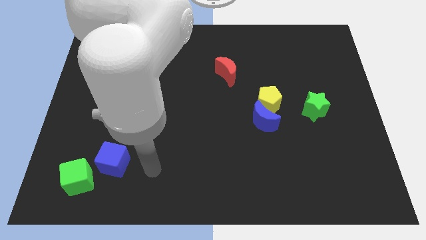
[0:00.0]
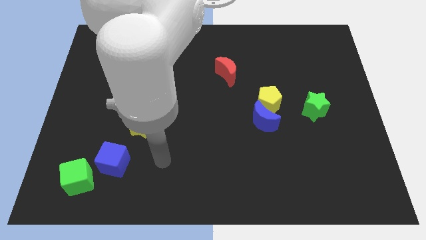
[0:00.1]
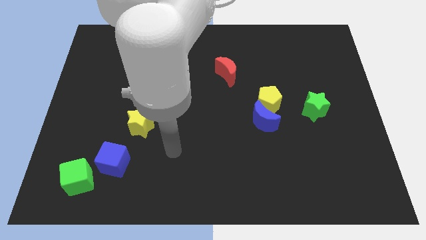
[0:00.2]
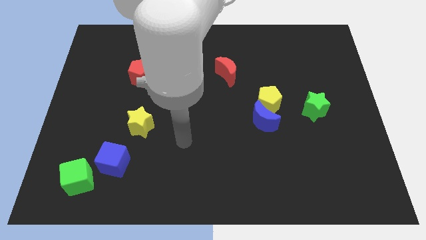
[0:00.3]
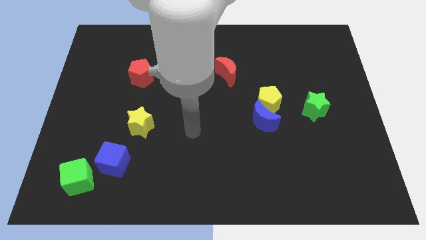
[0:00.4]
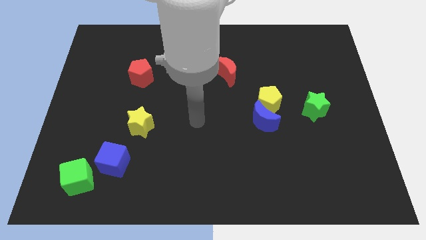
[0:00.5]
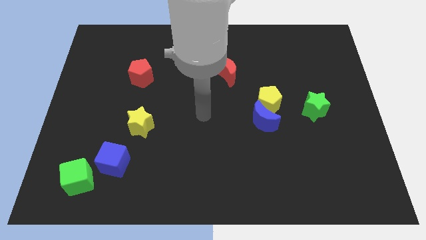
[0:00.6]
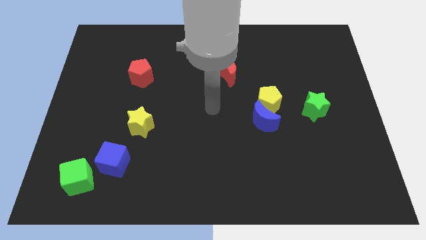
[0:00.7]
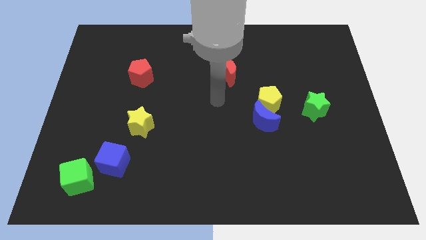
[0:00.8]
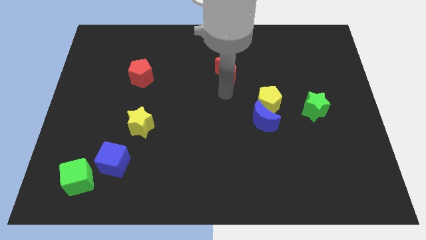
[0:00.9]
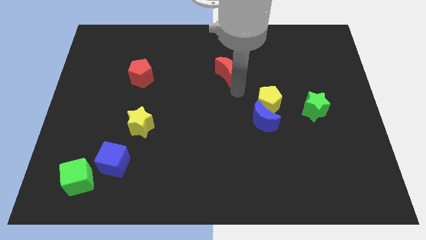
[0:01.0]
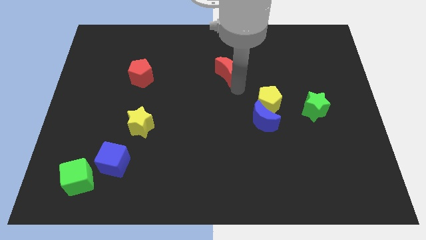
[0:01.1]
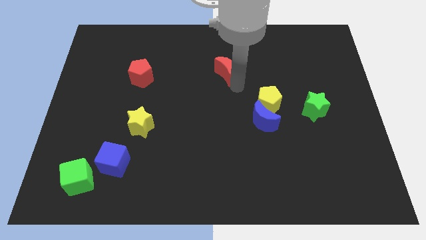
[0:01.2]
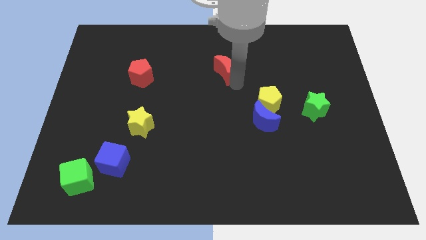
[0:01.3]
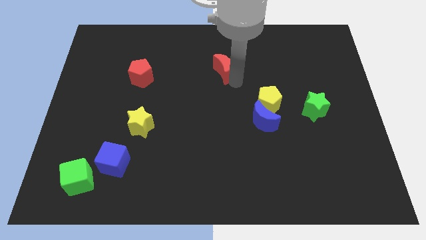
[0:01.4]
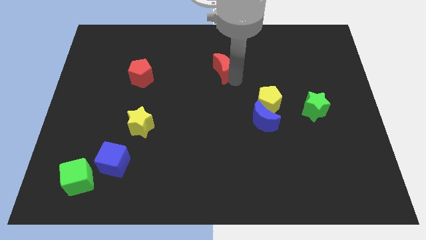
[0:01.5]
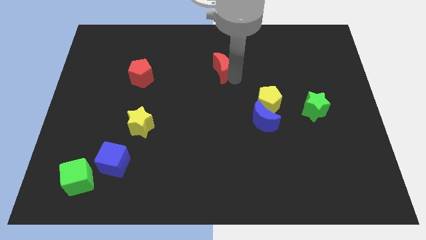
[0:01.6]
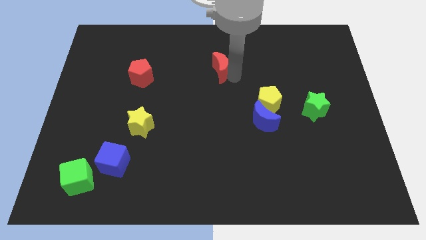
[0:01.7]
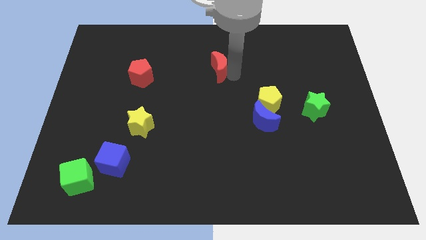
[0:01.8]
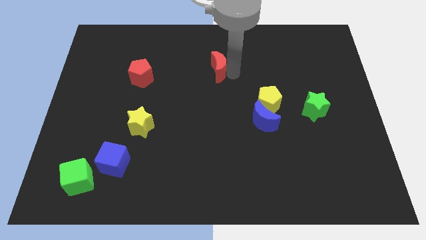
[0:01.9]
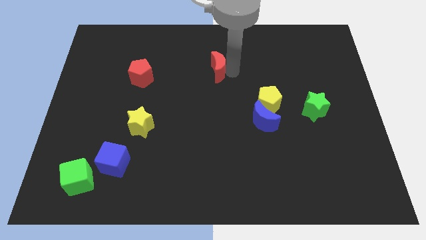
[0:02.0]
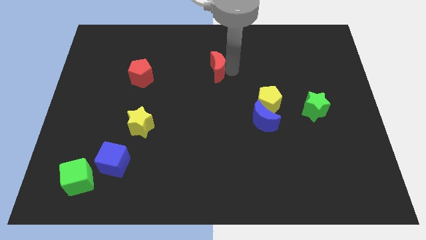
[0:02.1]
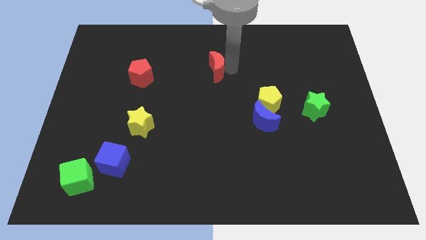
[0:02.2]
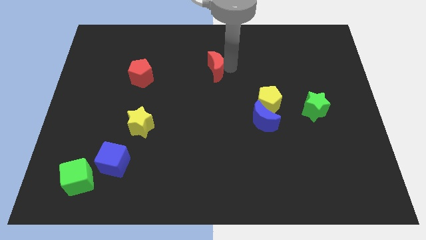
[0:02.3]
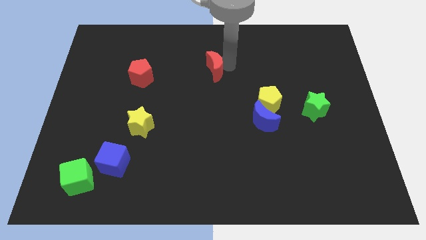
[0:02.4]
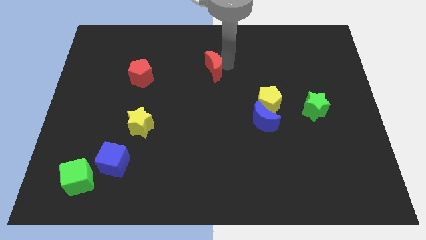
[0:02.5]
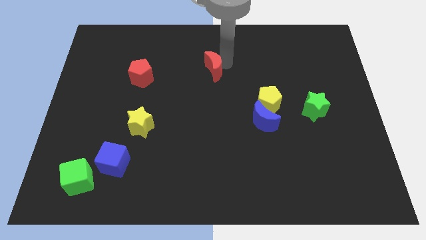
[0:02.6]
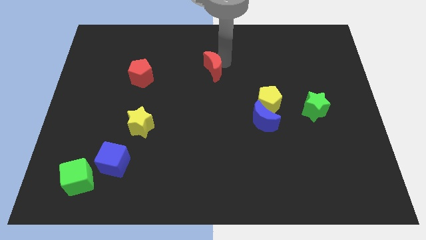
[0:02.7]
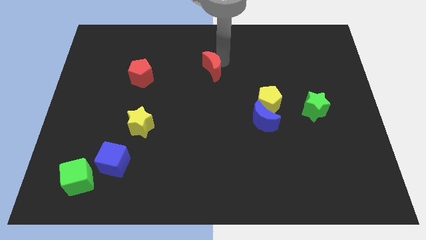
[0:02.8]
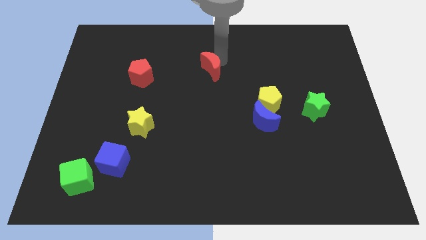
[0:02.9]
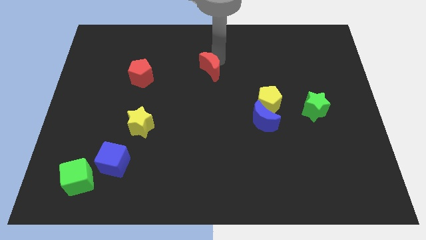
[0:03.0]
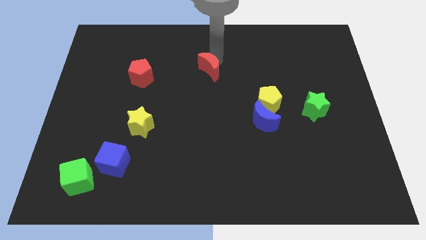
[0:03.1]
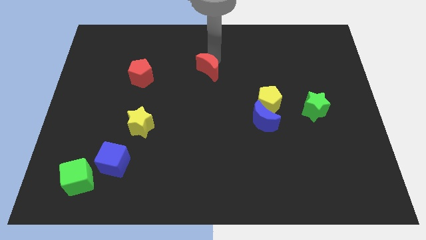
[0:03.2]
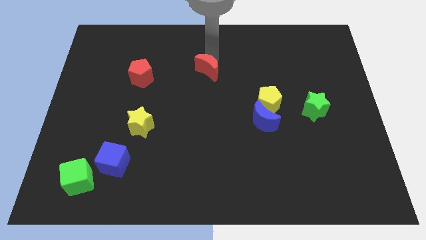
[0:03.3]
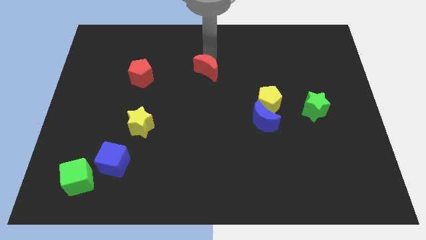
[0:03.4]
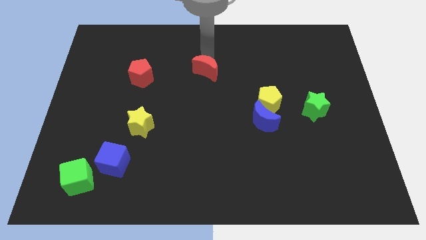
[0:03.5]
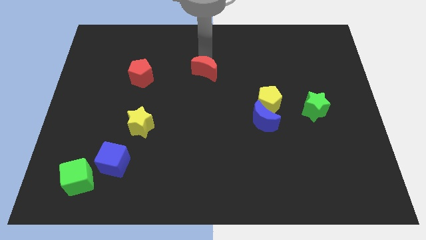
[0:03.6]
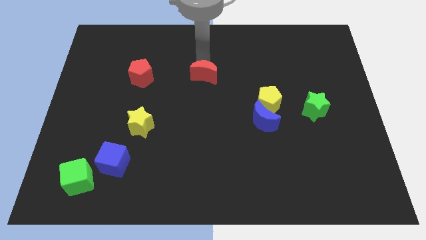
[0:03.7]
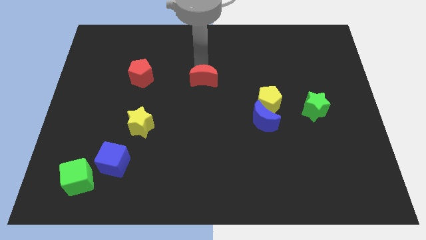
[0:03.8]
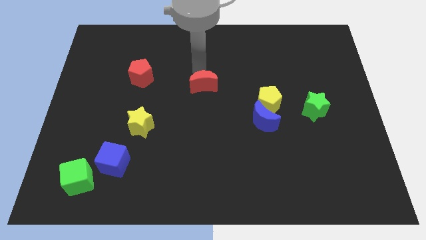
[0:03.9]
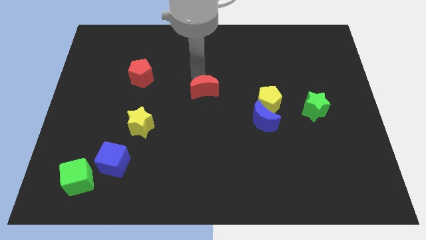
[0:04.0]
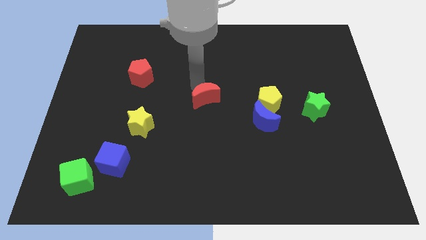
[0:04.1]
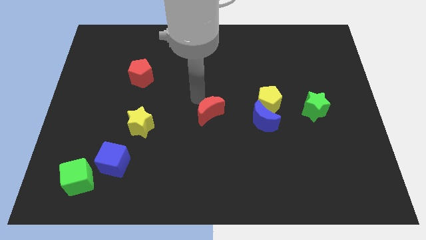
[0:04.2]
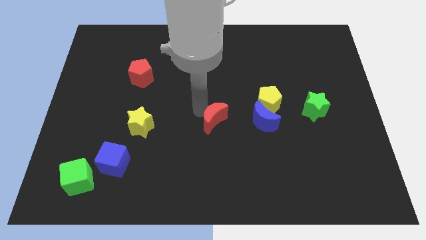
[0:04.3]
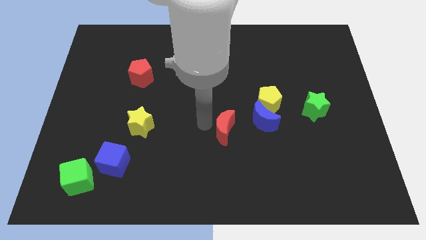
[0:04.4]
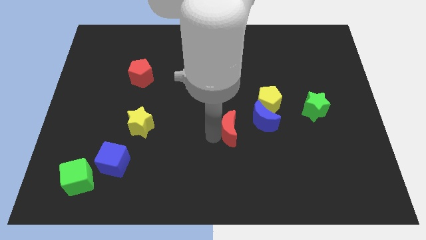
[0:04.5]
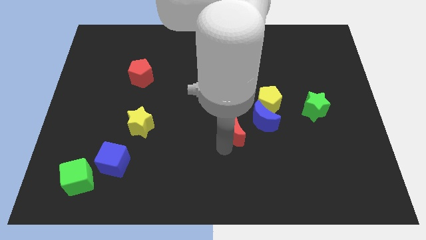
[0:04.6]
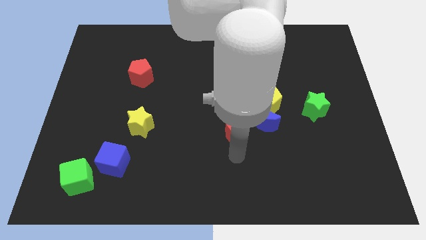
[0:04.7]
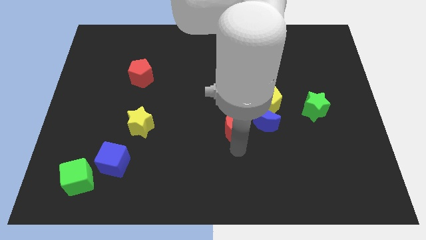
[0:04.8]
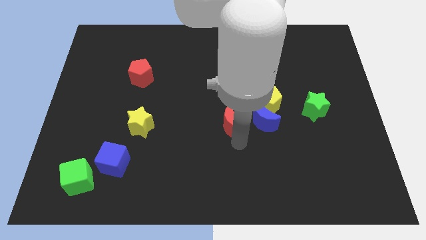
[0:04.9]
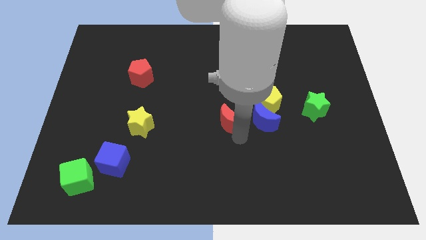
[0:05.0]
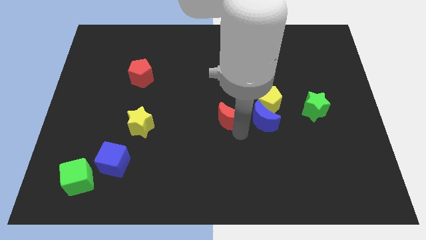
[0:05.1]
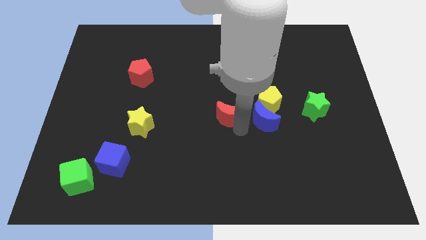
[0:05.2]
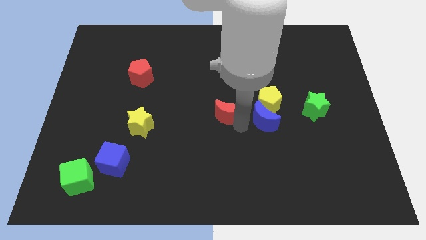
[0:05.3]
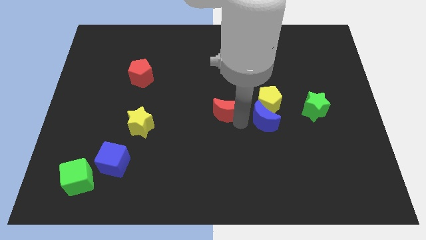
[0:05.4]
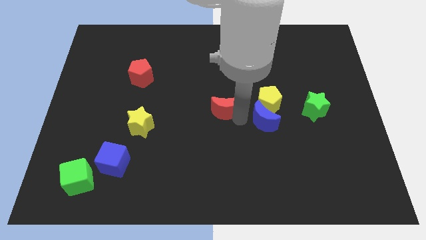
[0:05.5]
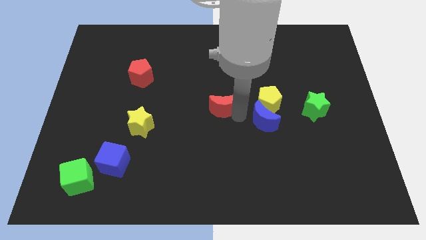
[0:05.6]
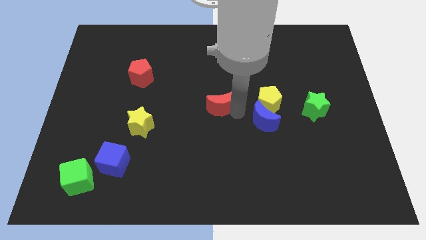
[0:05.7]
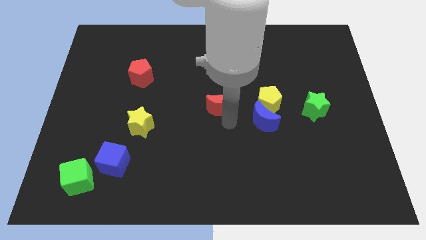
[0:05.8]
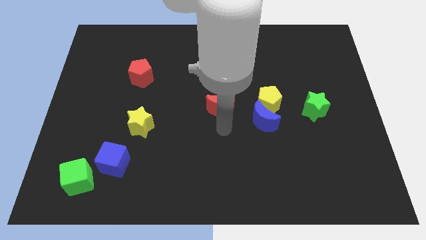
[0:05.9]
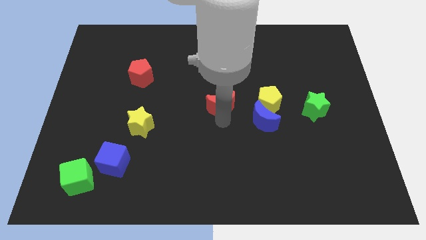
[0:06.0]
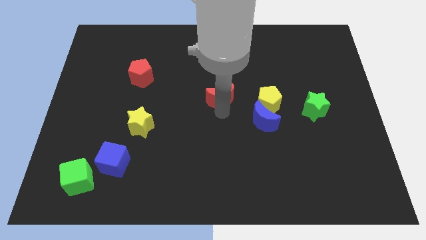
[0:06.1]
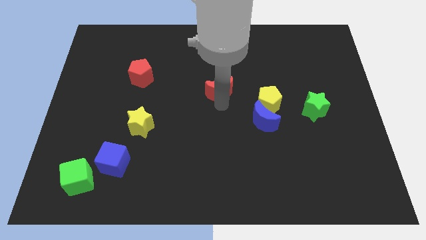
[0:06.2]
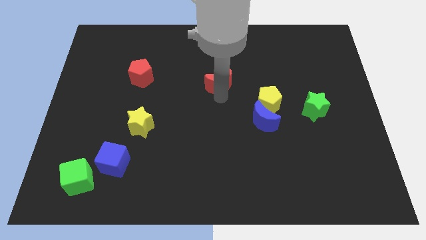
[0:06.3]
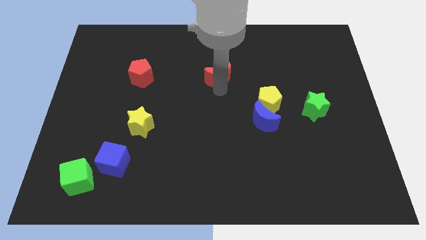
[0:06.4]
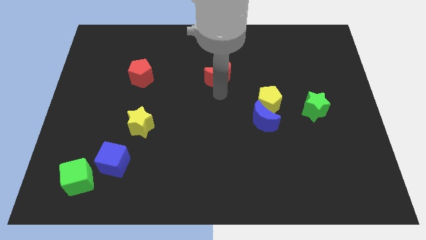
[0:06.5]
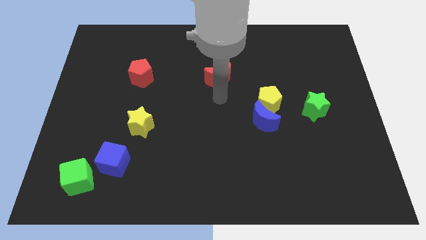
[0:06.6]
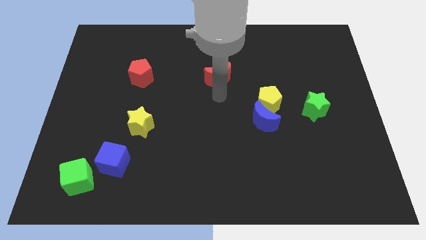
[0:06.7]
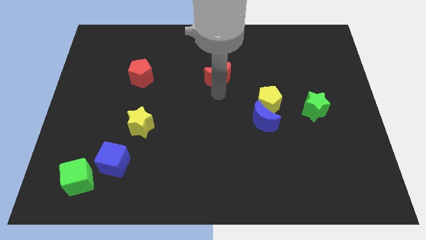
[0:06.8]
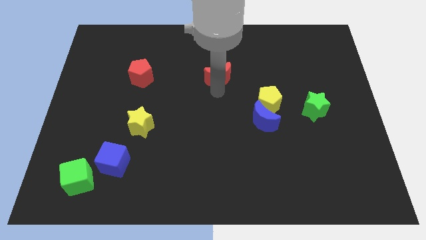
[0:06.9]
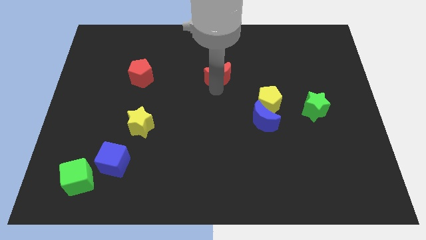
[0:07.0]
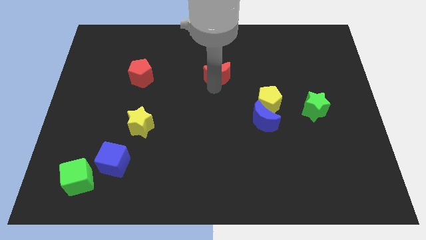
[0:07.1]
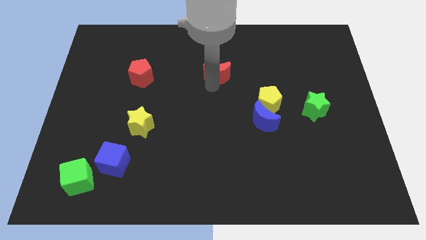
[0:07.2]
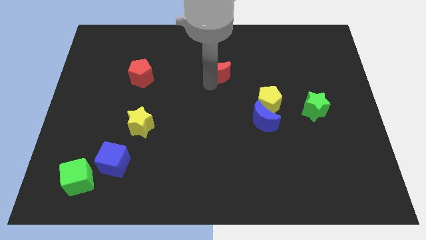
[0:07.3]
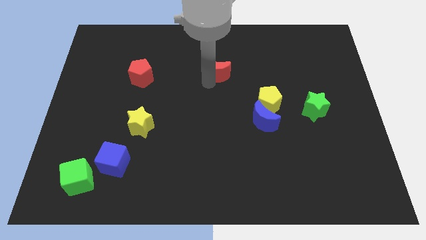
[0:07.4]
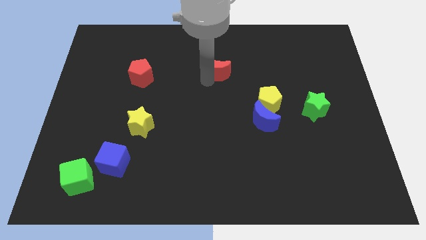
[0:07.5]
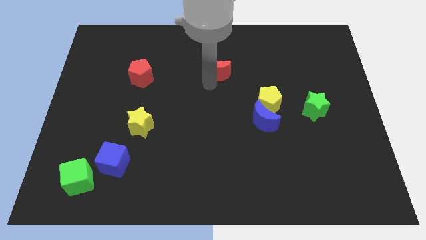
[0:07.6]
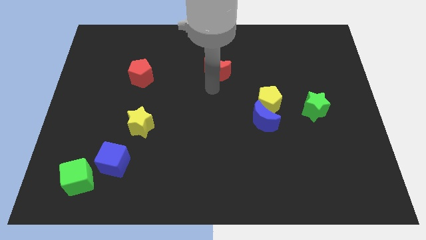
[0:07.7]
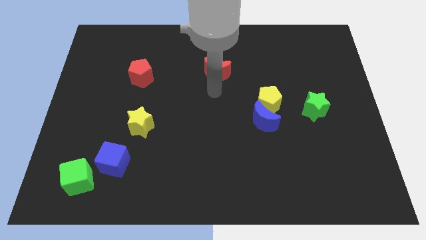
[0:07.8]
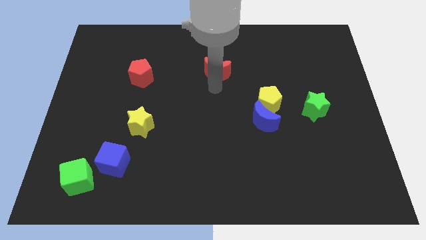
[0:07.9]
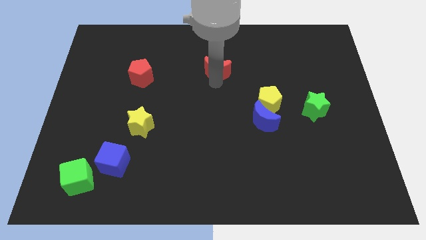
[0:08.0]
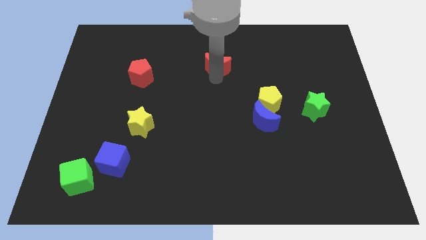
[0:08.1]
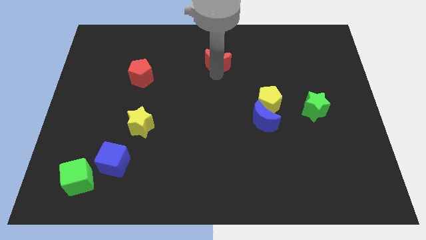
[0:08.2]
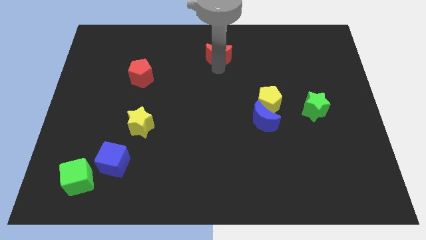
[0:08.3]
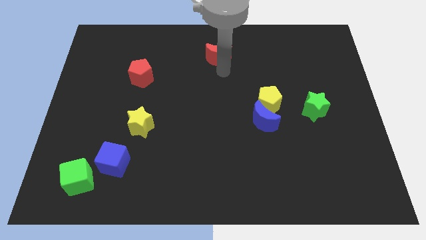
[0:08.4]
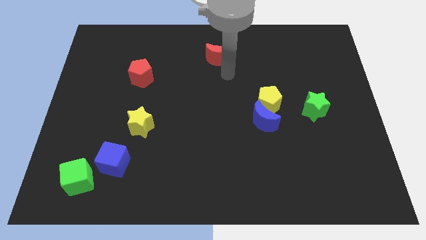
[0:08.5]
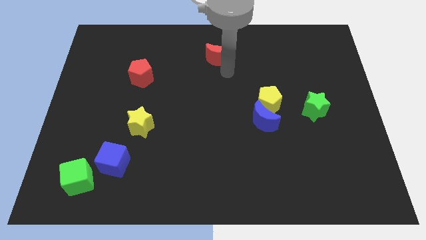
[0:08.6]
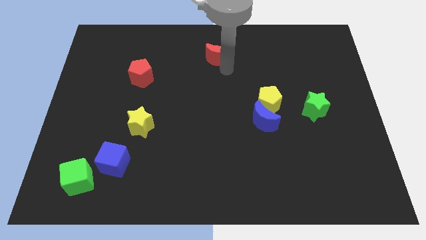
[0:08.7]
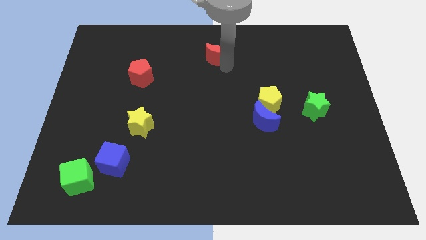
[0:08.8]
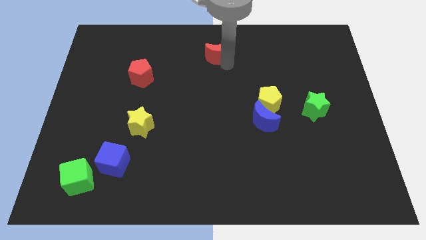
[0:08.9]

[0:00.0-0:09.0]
slide the red moon to the top
